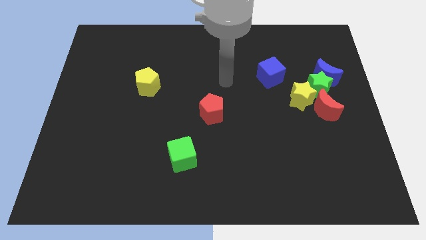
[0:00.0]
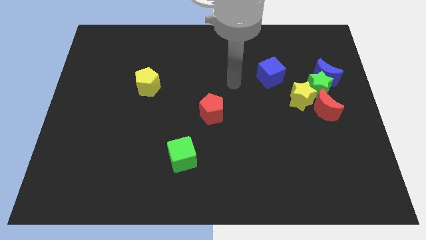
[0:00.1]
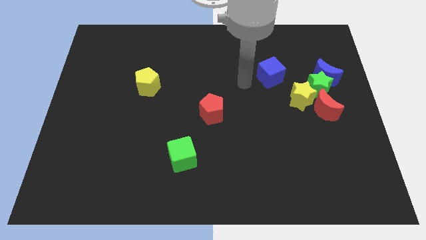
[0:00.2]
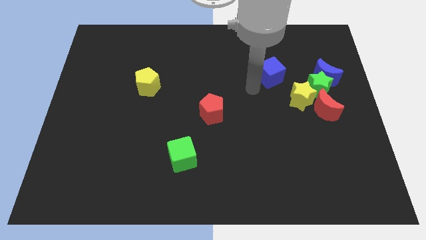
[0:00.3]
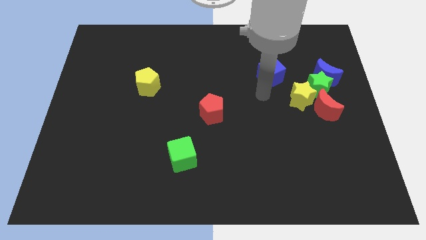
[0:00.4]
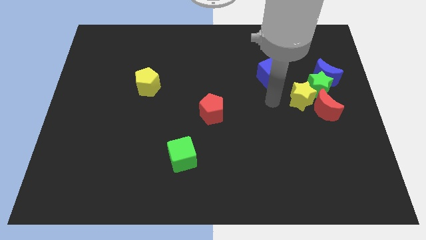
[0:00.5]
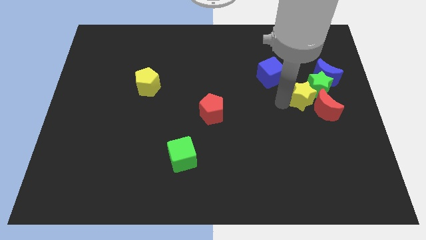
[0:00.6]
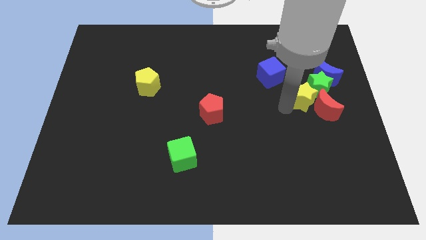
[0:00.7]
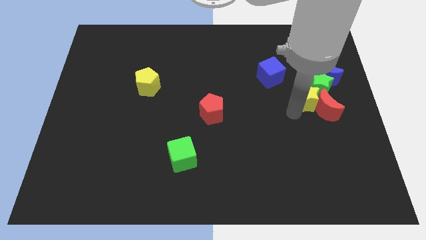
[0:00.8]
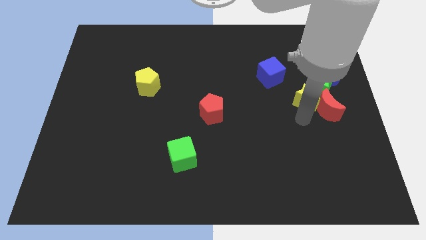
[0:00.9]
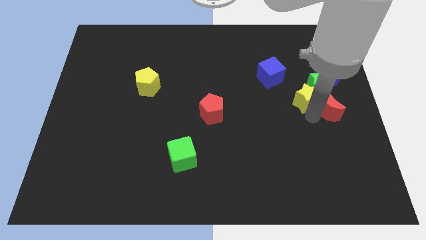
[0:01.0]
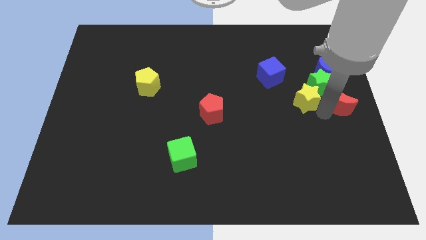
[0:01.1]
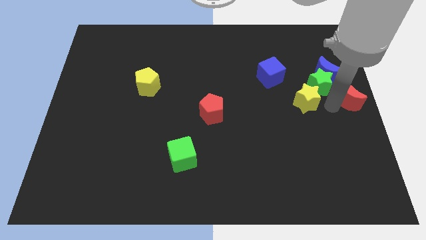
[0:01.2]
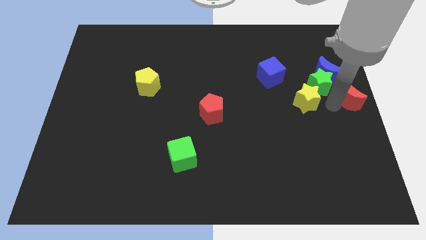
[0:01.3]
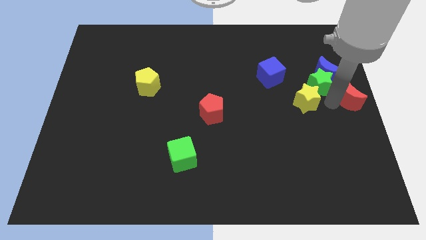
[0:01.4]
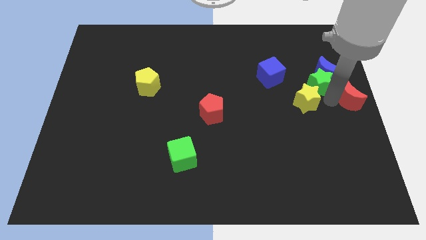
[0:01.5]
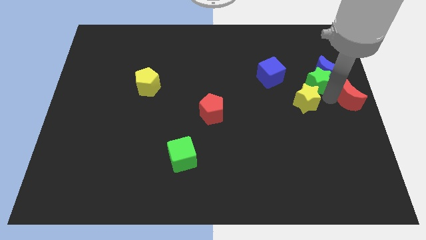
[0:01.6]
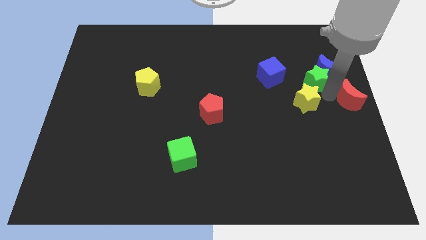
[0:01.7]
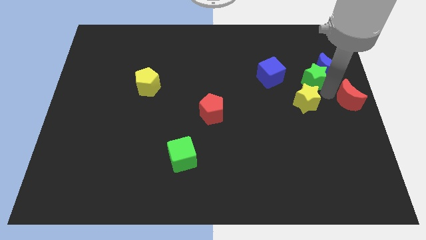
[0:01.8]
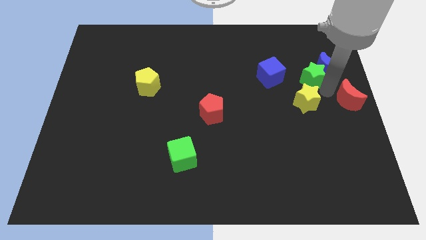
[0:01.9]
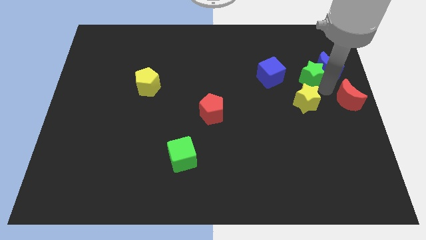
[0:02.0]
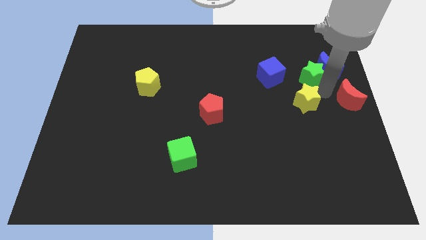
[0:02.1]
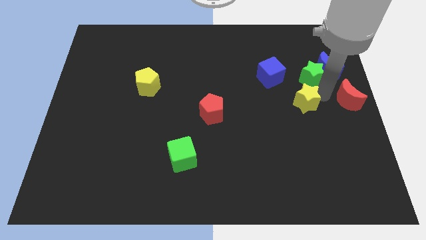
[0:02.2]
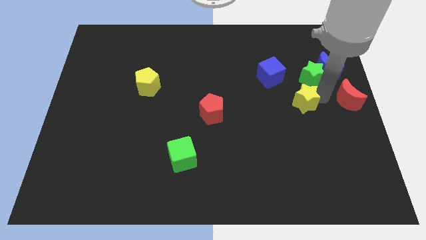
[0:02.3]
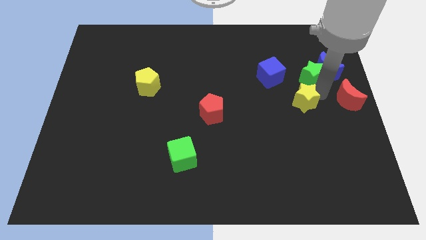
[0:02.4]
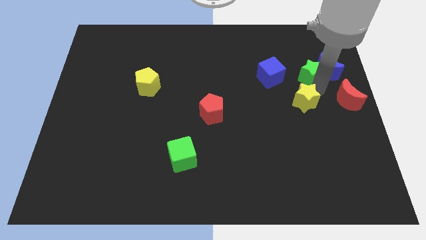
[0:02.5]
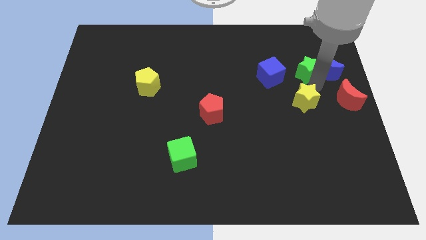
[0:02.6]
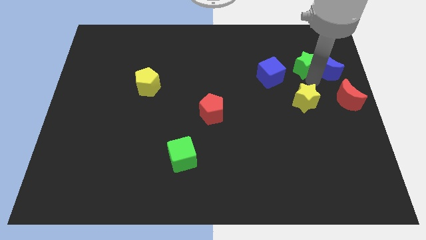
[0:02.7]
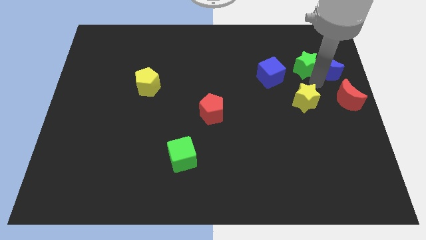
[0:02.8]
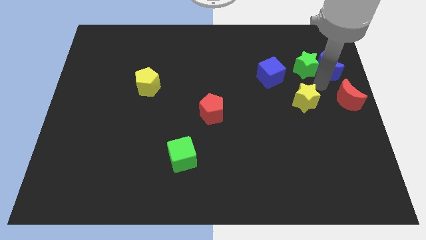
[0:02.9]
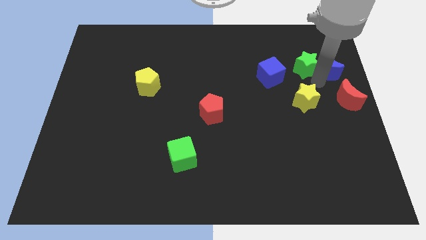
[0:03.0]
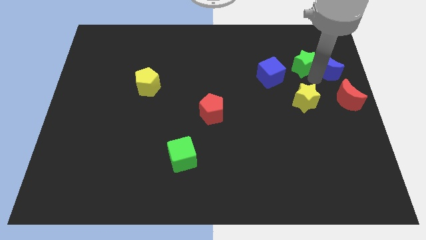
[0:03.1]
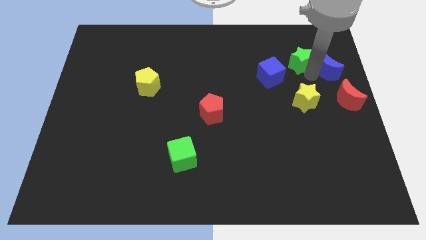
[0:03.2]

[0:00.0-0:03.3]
separate the green star from the blue moon, yellow star, and red moon

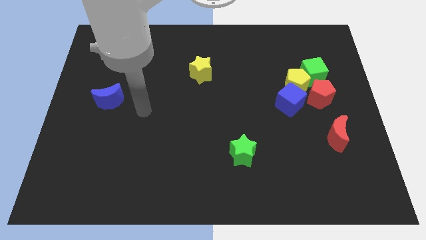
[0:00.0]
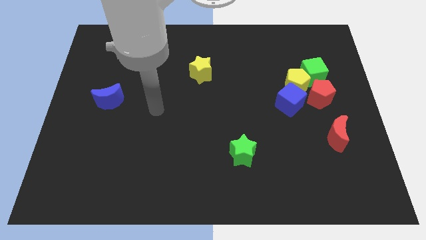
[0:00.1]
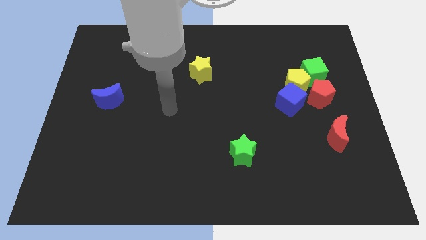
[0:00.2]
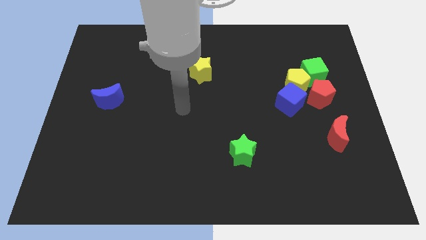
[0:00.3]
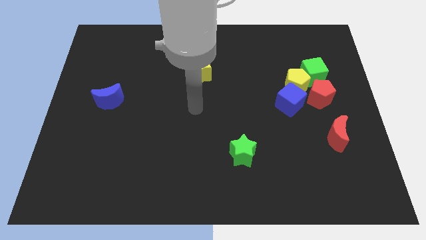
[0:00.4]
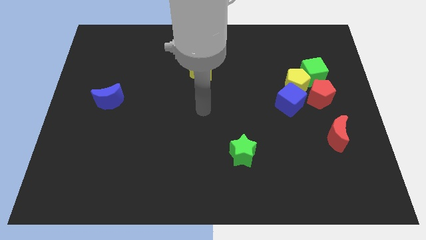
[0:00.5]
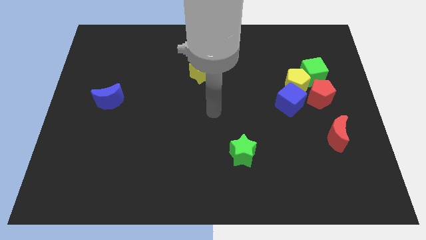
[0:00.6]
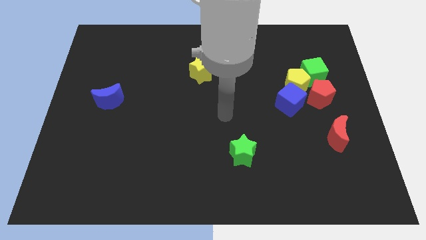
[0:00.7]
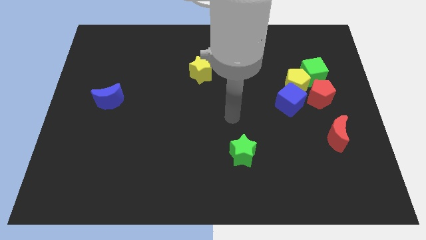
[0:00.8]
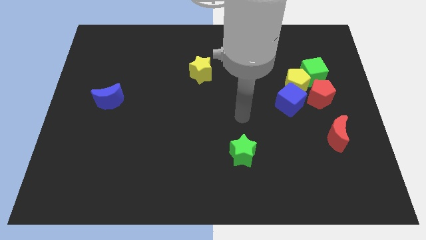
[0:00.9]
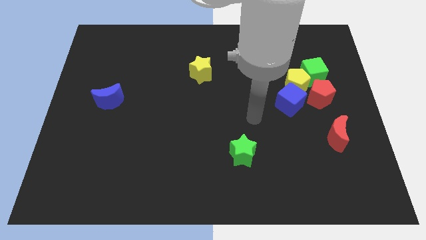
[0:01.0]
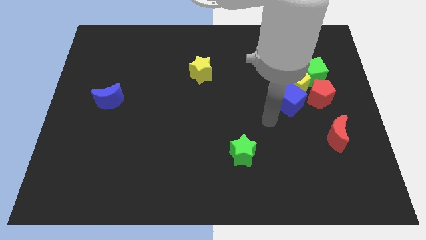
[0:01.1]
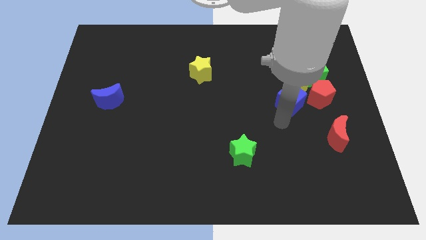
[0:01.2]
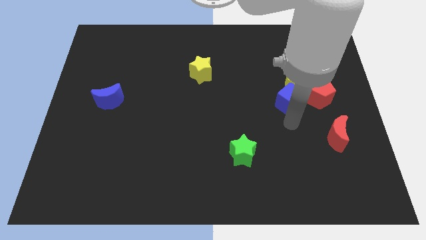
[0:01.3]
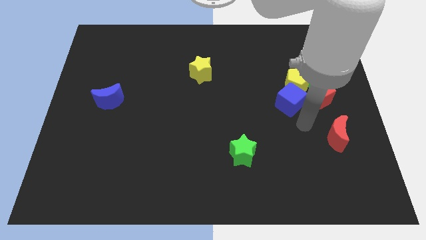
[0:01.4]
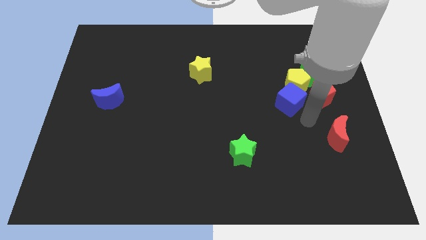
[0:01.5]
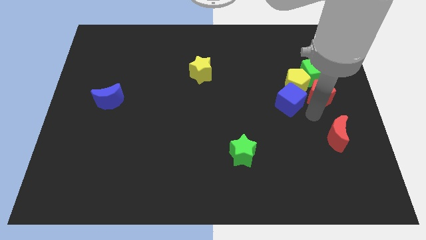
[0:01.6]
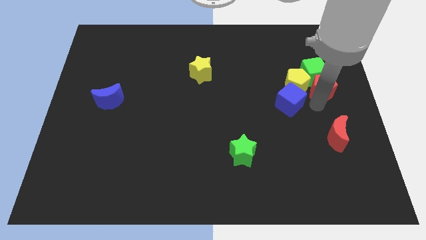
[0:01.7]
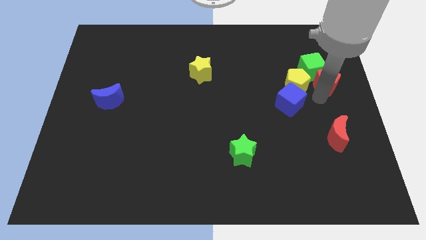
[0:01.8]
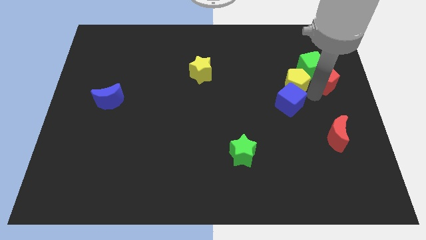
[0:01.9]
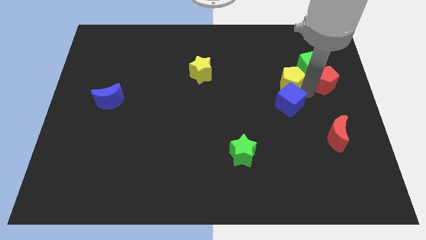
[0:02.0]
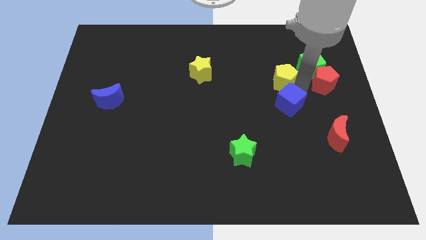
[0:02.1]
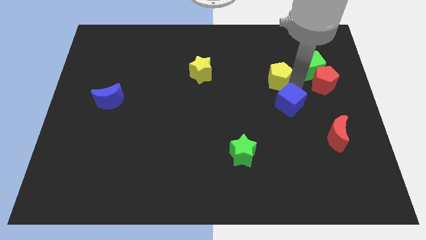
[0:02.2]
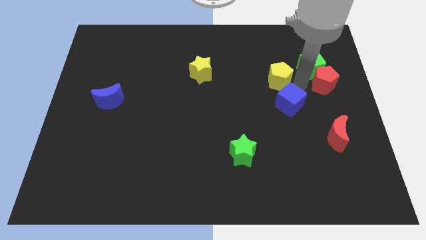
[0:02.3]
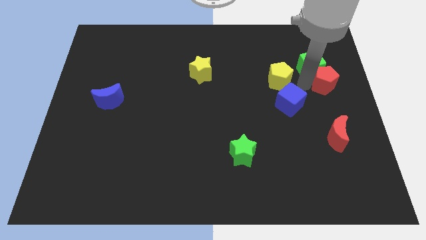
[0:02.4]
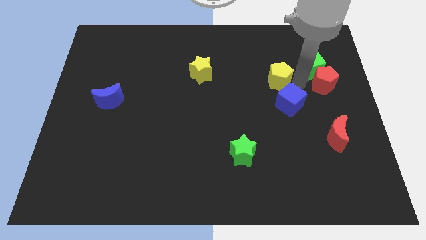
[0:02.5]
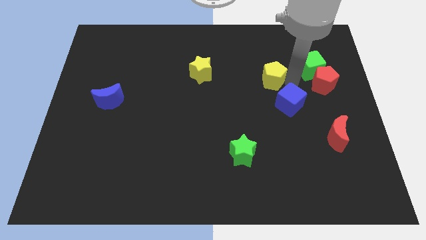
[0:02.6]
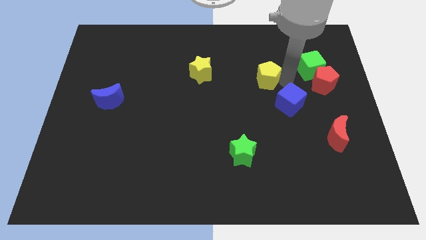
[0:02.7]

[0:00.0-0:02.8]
separate the yellow pentagon from the blue cube, green cube, and red pentagon

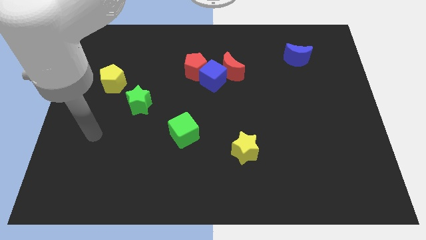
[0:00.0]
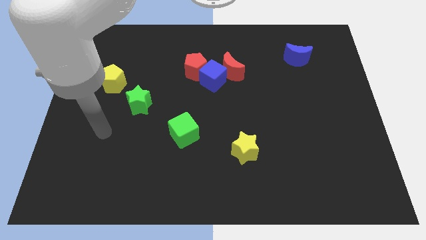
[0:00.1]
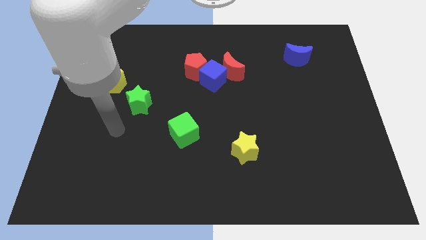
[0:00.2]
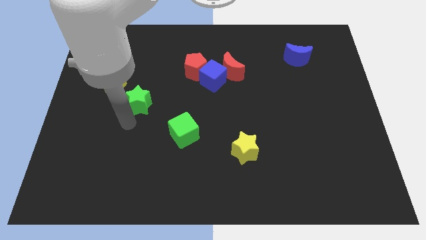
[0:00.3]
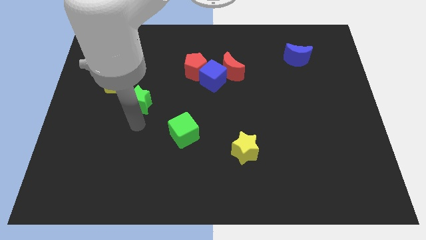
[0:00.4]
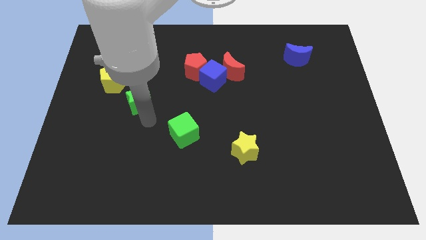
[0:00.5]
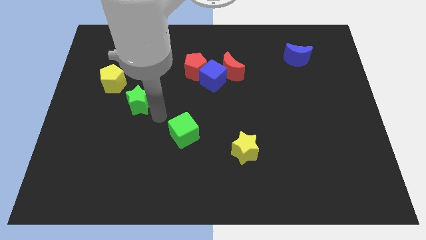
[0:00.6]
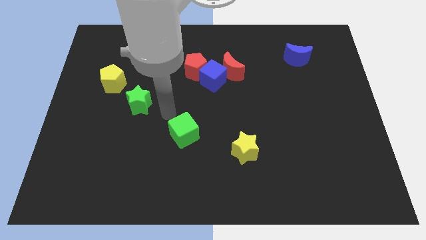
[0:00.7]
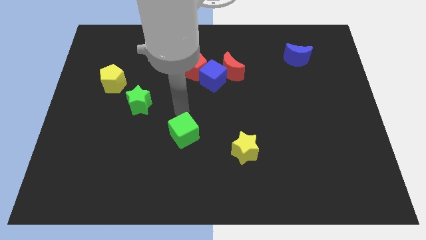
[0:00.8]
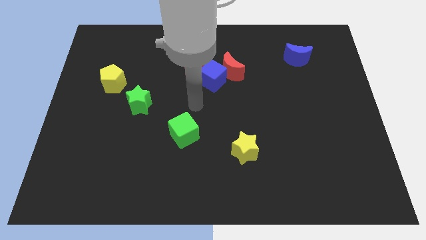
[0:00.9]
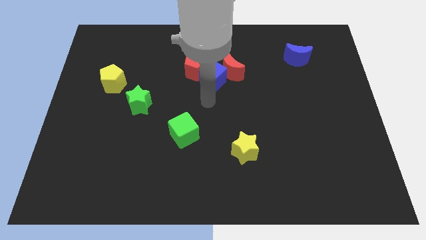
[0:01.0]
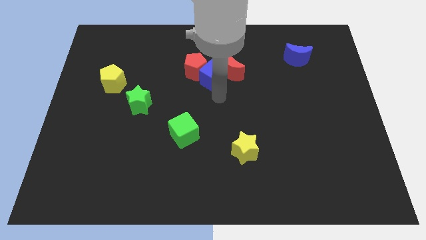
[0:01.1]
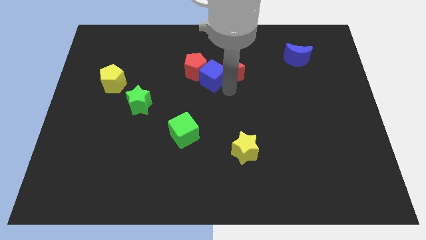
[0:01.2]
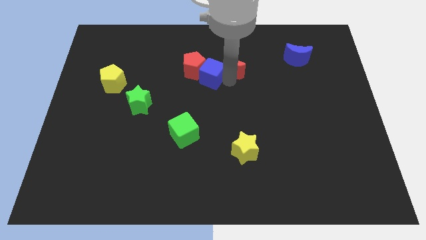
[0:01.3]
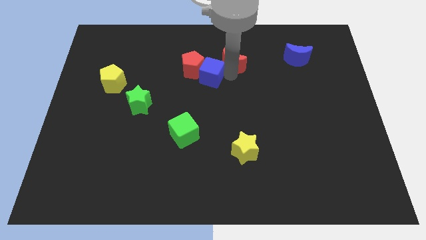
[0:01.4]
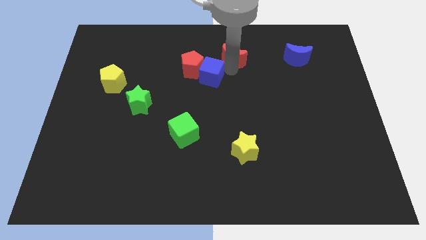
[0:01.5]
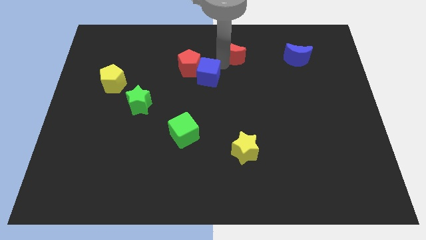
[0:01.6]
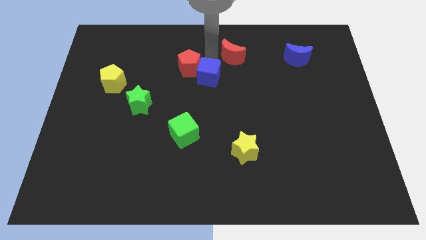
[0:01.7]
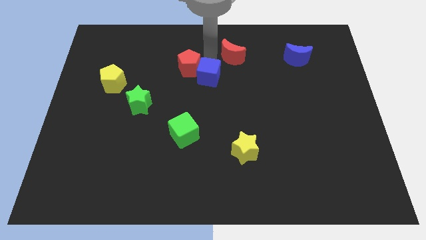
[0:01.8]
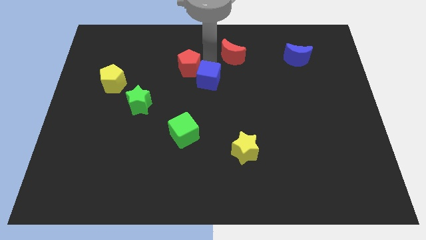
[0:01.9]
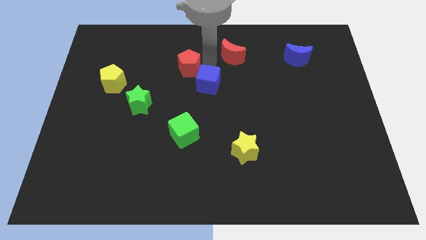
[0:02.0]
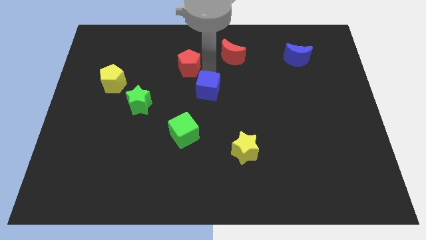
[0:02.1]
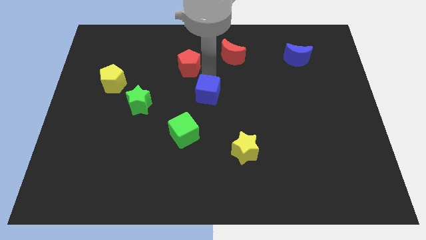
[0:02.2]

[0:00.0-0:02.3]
separate the blue cube from the red moon and red pentagon

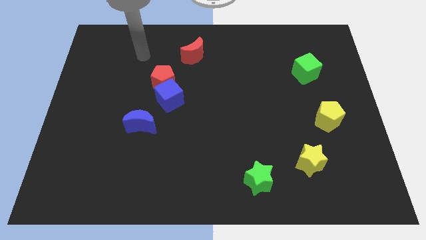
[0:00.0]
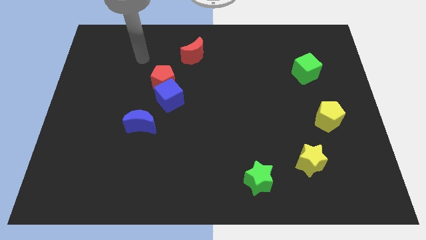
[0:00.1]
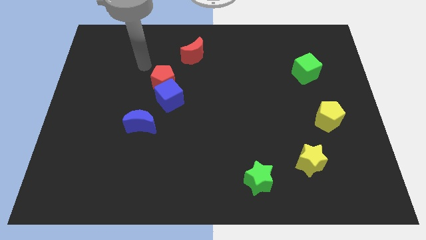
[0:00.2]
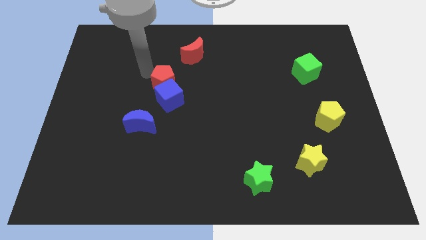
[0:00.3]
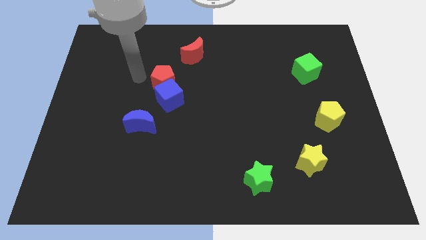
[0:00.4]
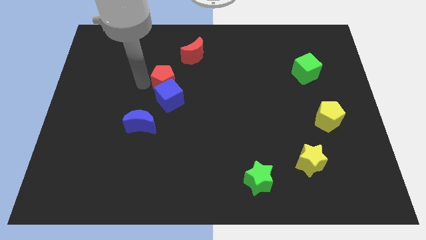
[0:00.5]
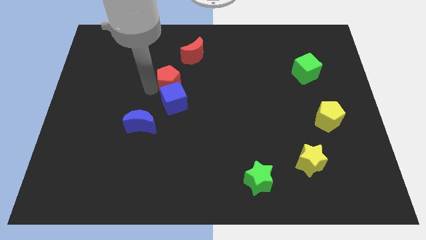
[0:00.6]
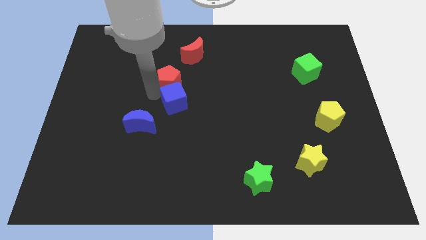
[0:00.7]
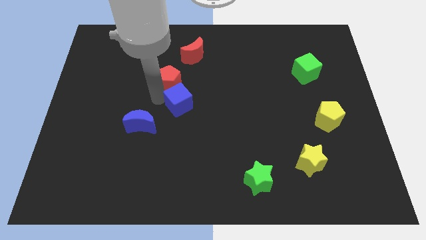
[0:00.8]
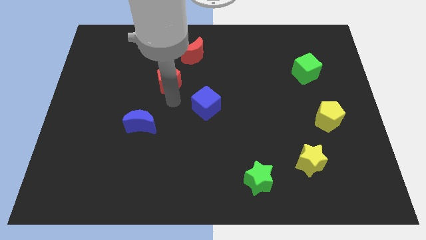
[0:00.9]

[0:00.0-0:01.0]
move the red pentagon away from the blue cube
